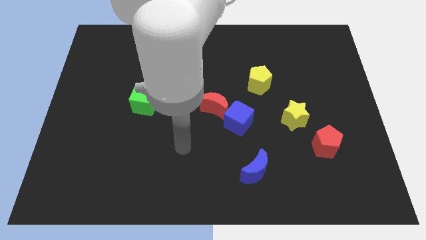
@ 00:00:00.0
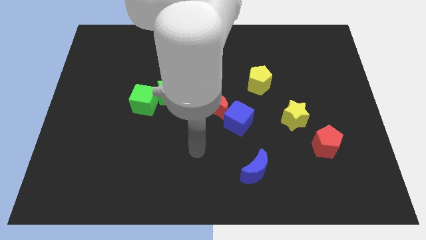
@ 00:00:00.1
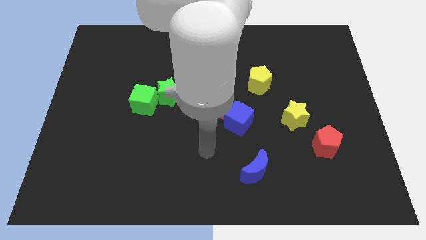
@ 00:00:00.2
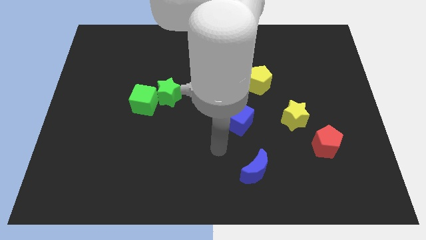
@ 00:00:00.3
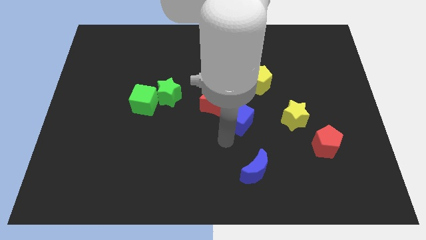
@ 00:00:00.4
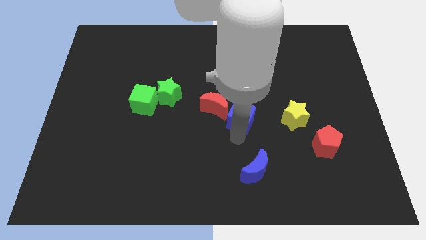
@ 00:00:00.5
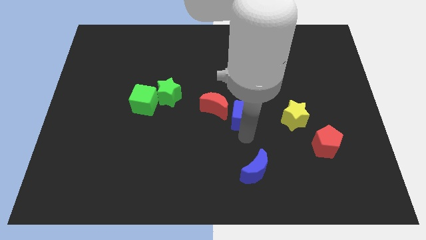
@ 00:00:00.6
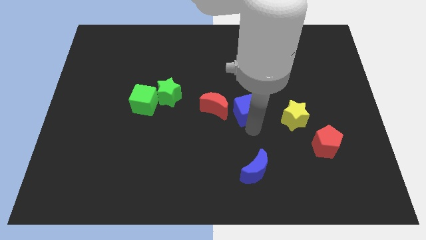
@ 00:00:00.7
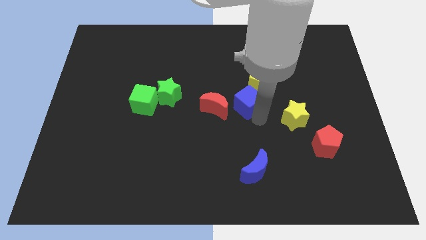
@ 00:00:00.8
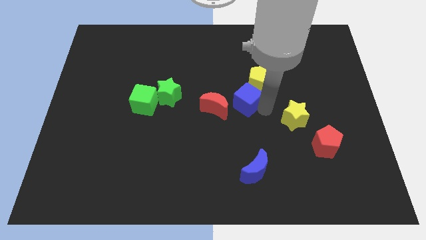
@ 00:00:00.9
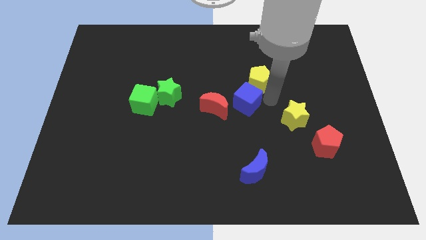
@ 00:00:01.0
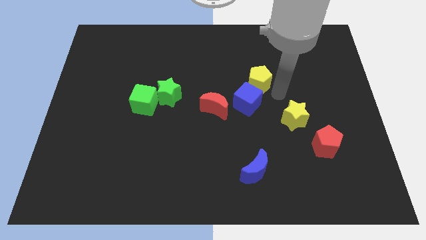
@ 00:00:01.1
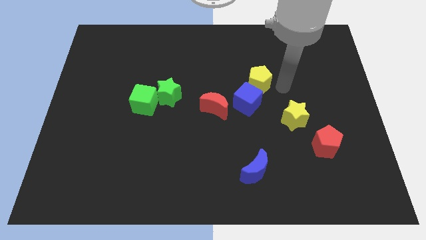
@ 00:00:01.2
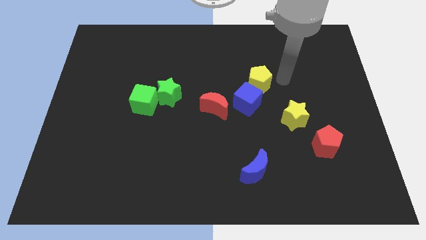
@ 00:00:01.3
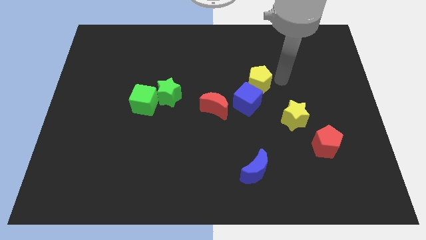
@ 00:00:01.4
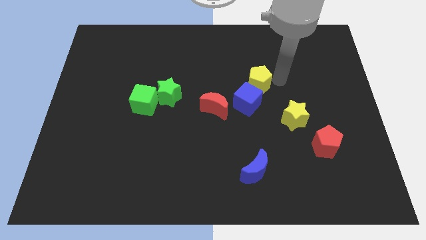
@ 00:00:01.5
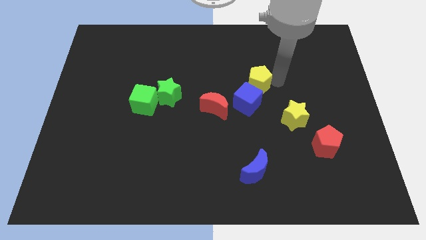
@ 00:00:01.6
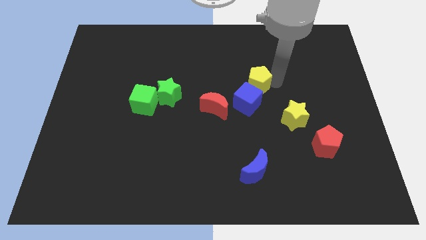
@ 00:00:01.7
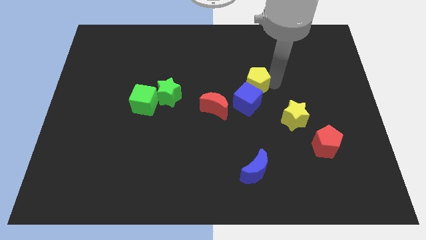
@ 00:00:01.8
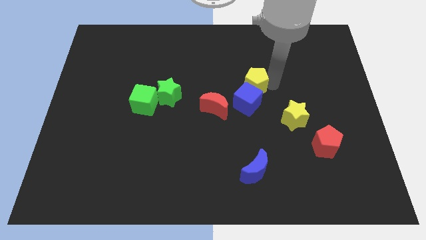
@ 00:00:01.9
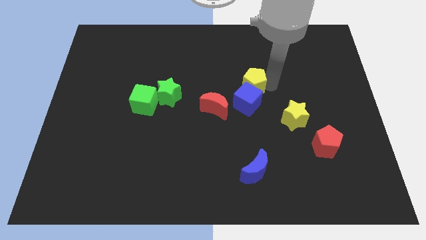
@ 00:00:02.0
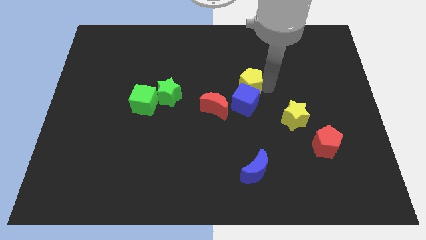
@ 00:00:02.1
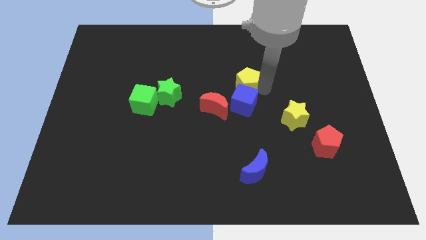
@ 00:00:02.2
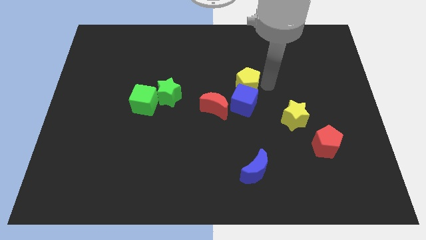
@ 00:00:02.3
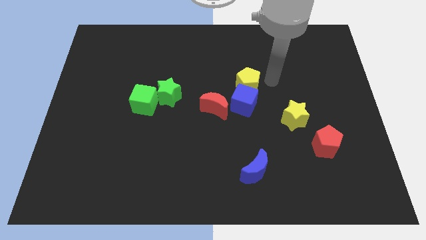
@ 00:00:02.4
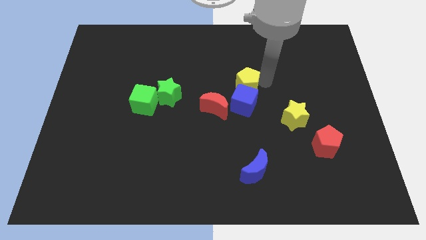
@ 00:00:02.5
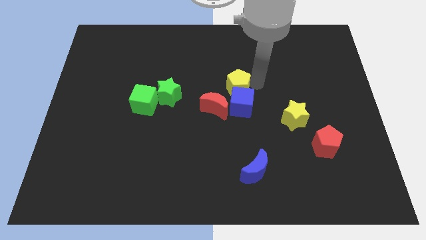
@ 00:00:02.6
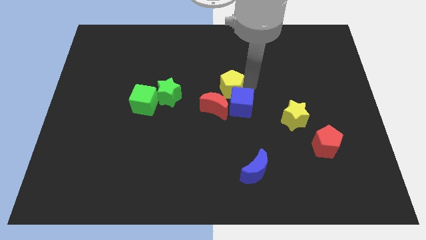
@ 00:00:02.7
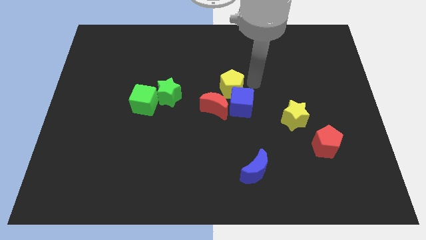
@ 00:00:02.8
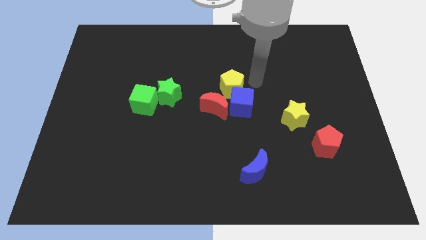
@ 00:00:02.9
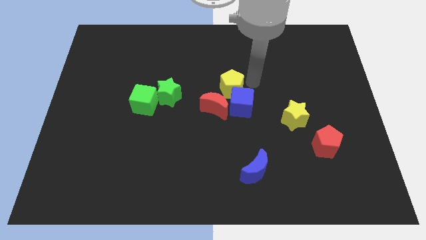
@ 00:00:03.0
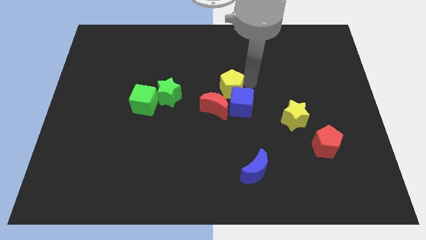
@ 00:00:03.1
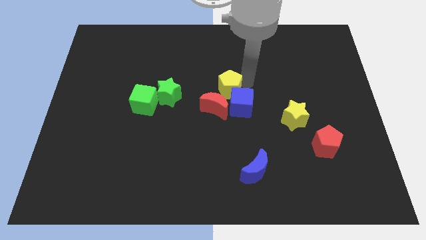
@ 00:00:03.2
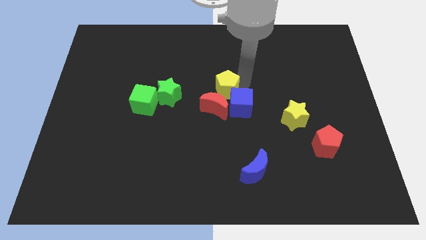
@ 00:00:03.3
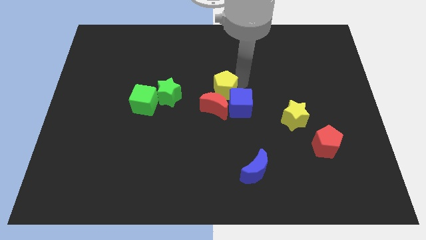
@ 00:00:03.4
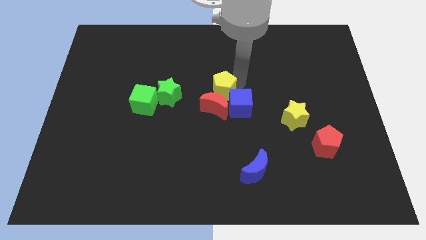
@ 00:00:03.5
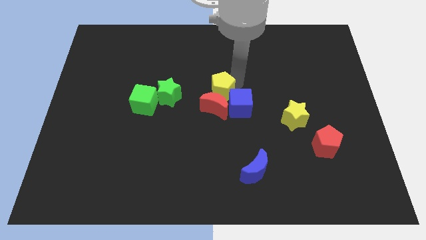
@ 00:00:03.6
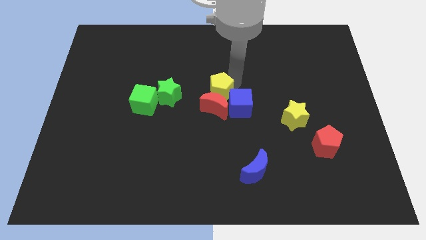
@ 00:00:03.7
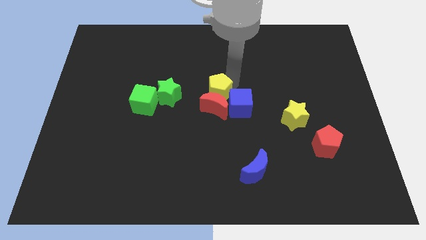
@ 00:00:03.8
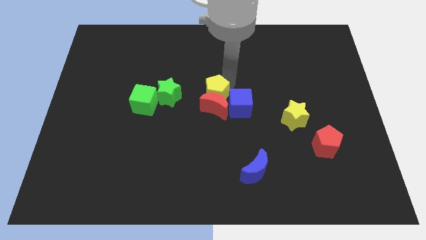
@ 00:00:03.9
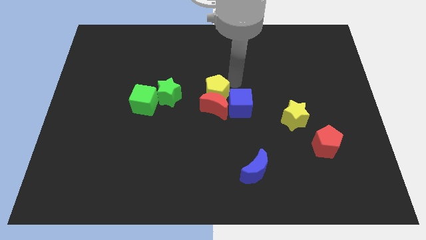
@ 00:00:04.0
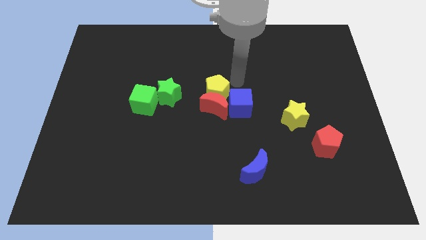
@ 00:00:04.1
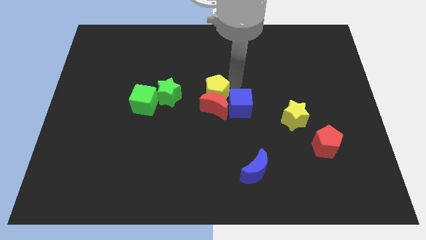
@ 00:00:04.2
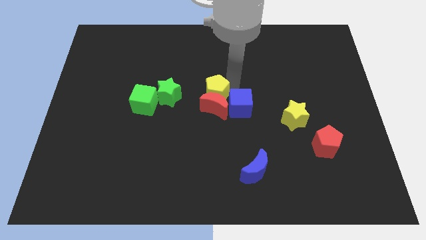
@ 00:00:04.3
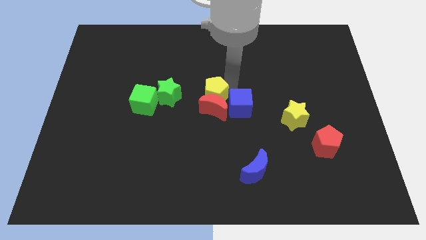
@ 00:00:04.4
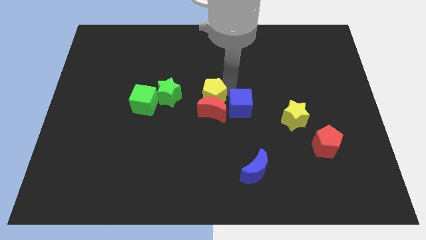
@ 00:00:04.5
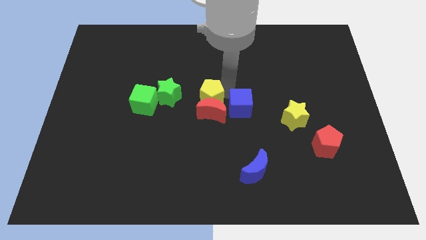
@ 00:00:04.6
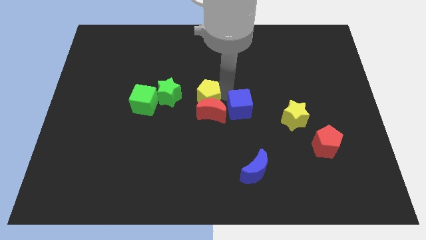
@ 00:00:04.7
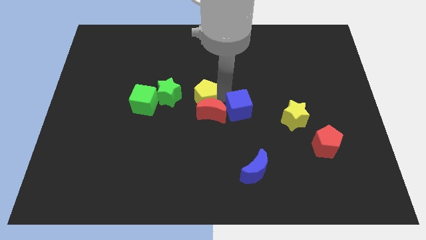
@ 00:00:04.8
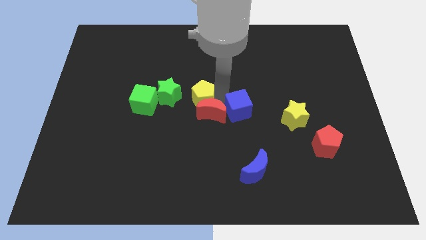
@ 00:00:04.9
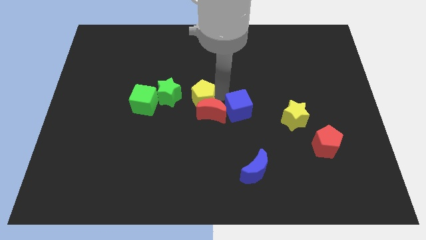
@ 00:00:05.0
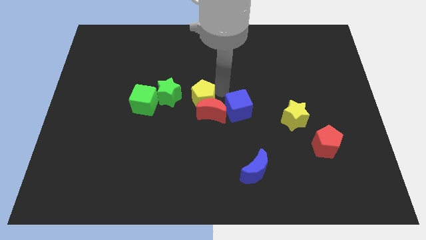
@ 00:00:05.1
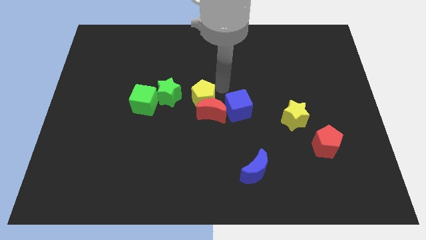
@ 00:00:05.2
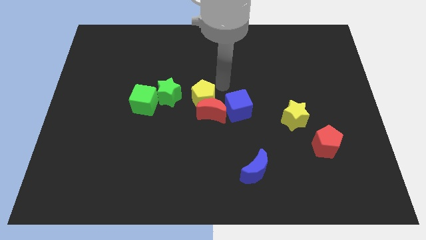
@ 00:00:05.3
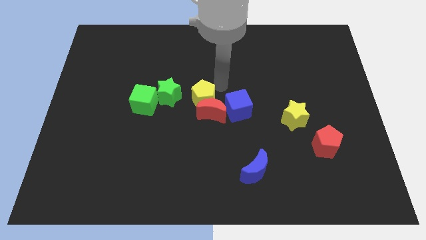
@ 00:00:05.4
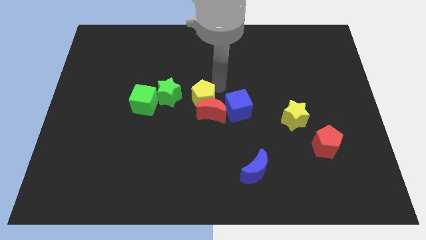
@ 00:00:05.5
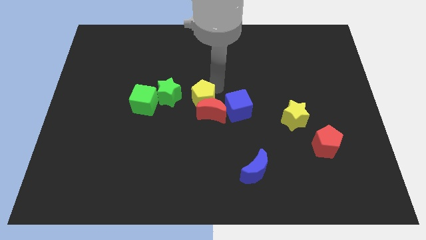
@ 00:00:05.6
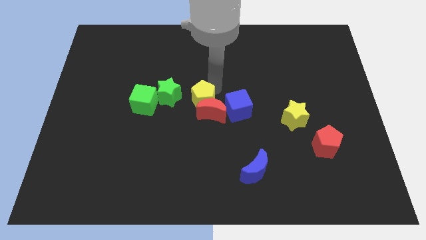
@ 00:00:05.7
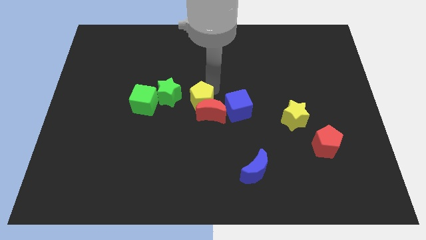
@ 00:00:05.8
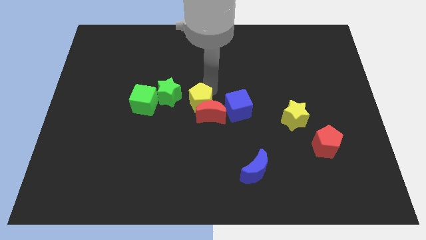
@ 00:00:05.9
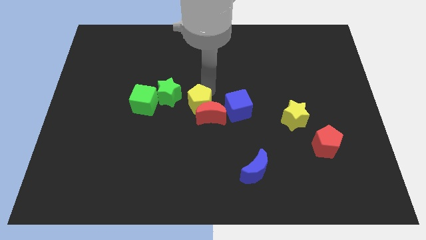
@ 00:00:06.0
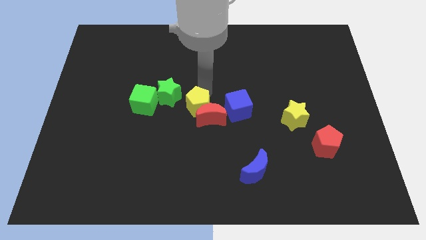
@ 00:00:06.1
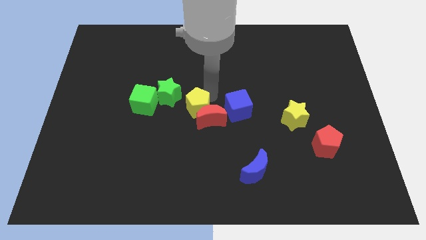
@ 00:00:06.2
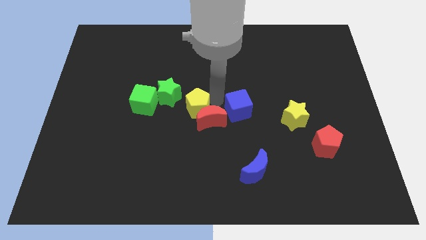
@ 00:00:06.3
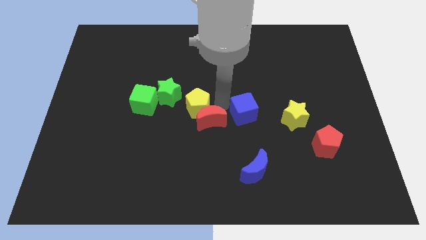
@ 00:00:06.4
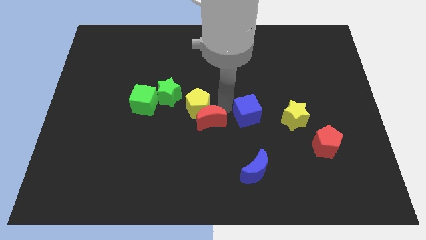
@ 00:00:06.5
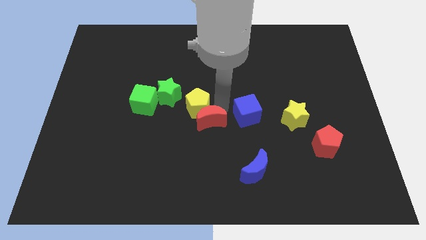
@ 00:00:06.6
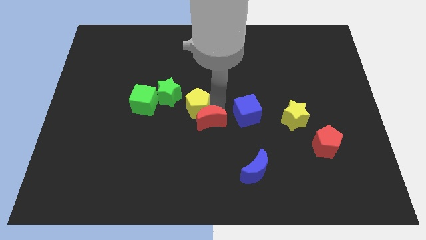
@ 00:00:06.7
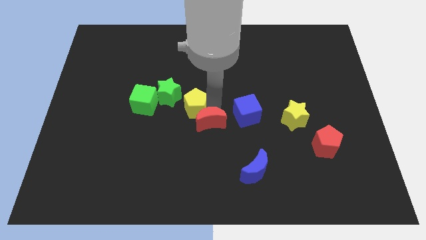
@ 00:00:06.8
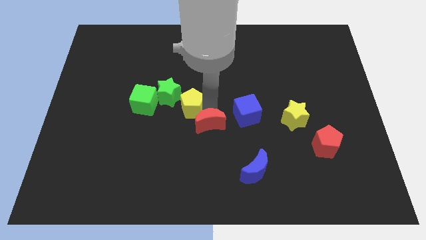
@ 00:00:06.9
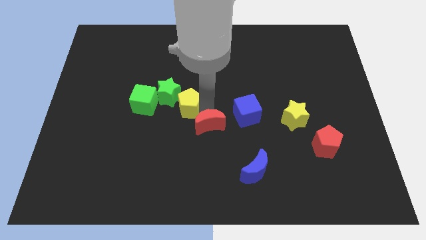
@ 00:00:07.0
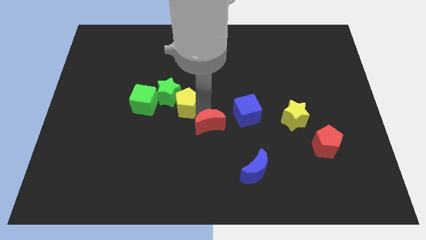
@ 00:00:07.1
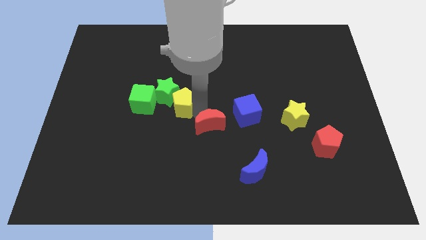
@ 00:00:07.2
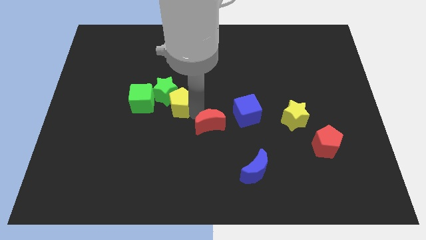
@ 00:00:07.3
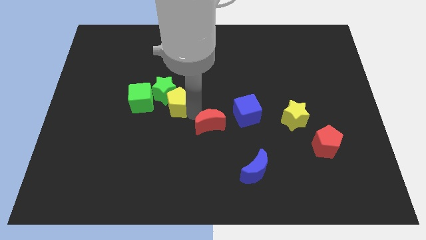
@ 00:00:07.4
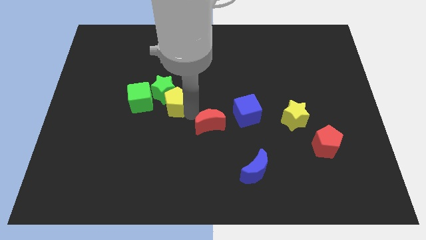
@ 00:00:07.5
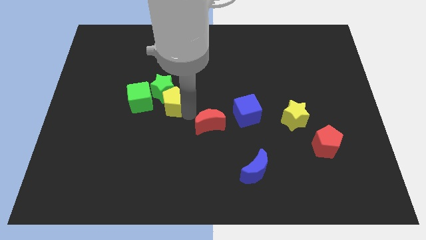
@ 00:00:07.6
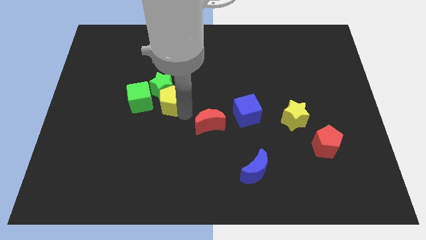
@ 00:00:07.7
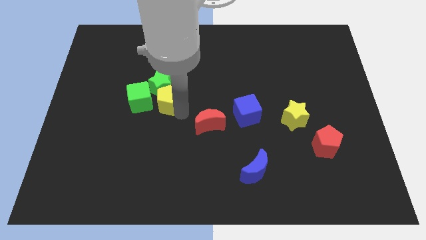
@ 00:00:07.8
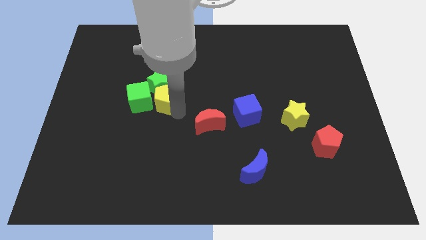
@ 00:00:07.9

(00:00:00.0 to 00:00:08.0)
move the yellow pentagon to the green cube
